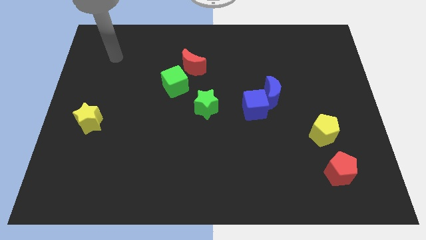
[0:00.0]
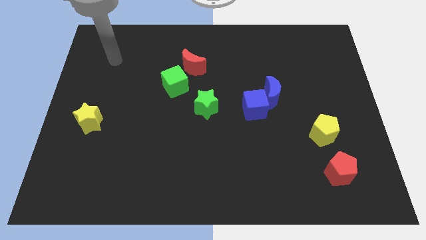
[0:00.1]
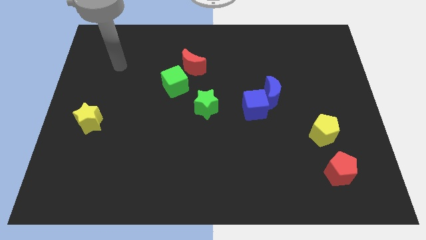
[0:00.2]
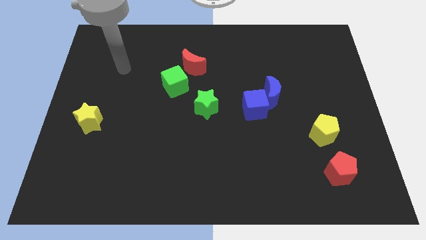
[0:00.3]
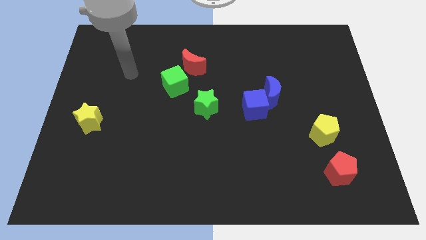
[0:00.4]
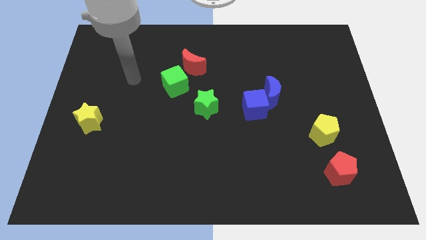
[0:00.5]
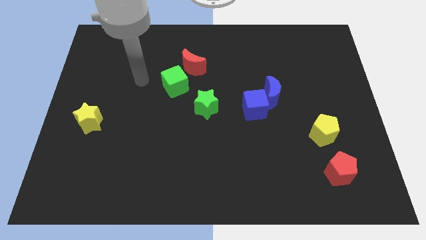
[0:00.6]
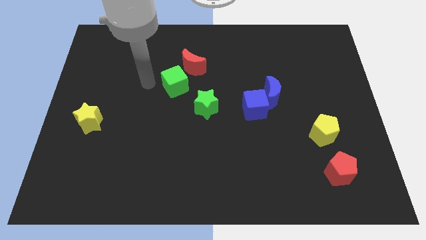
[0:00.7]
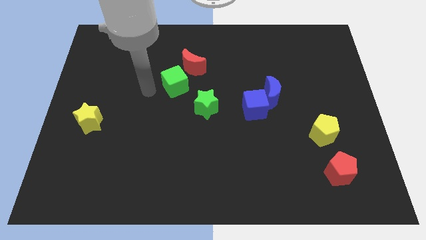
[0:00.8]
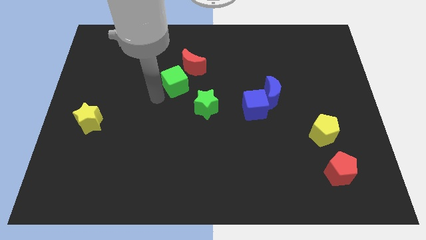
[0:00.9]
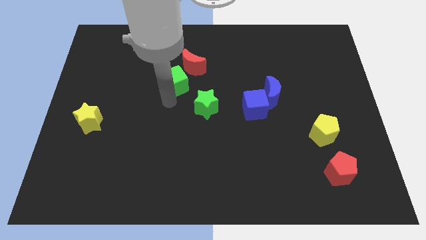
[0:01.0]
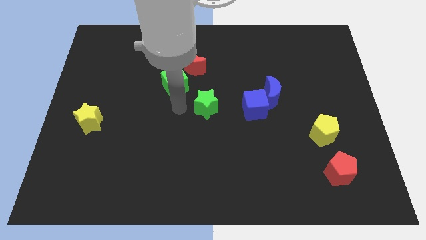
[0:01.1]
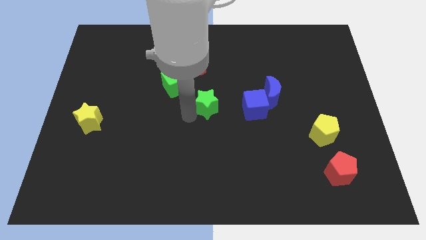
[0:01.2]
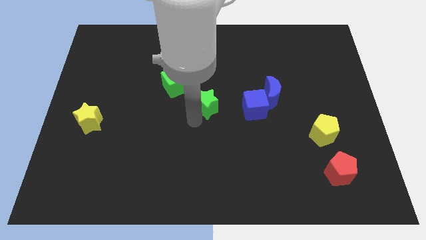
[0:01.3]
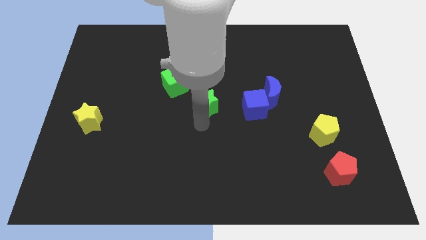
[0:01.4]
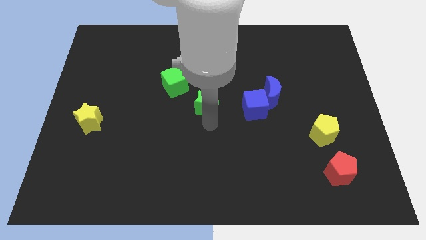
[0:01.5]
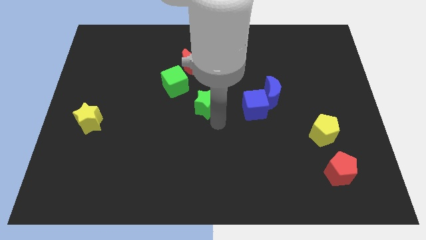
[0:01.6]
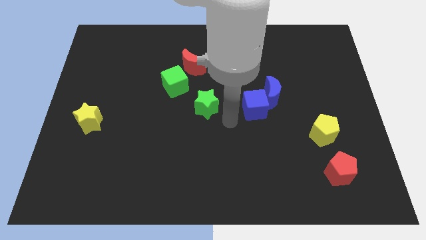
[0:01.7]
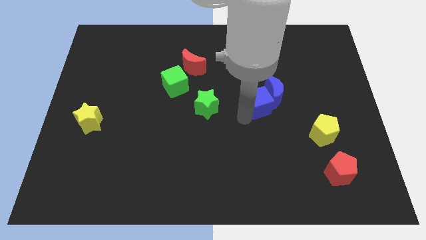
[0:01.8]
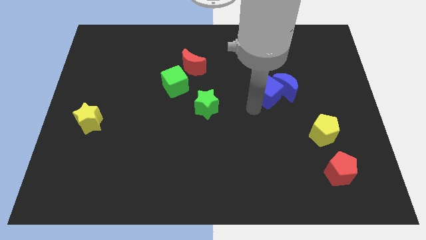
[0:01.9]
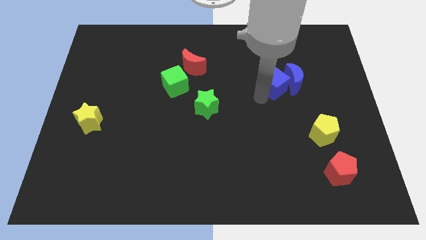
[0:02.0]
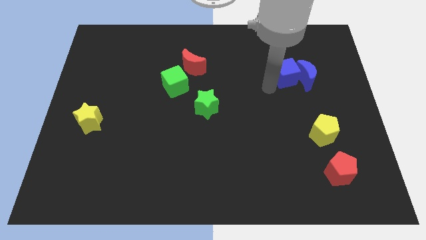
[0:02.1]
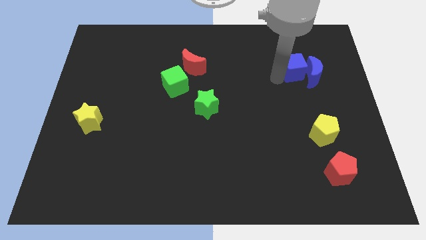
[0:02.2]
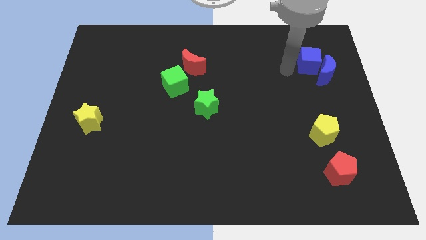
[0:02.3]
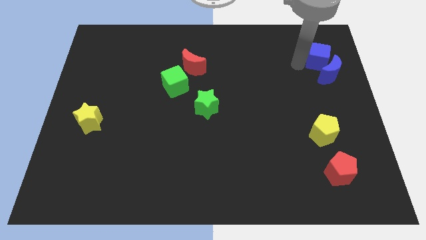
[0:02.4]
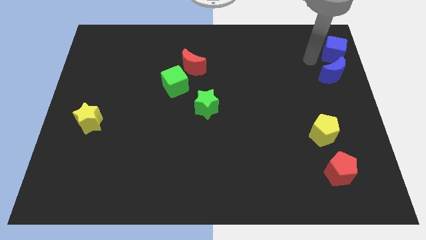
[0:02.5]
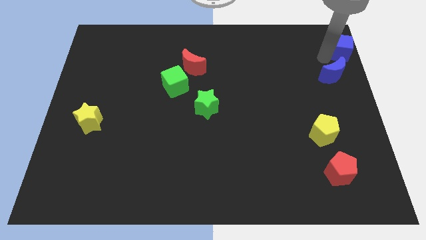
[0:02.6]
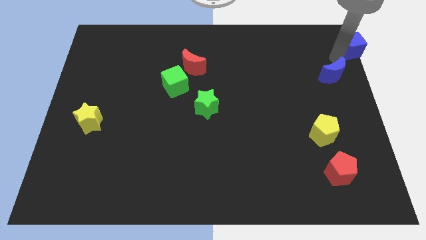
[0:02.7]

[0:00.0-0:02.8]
separate the blue moon from the blue cube

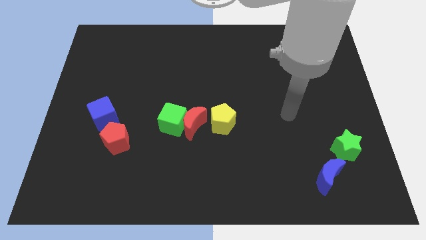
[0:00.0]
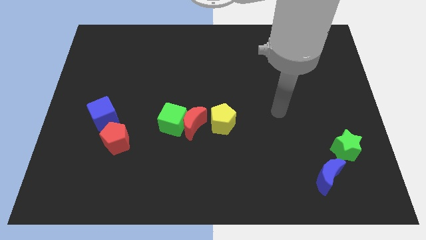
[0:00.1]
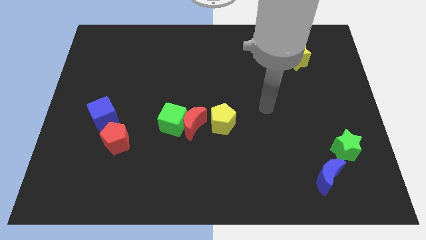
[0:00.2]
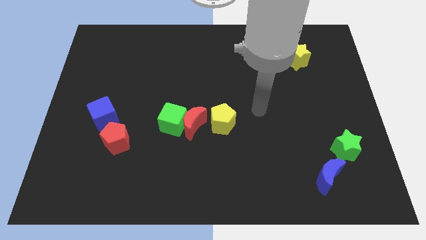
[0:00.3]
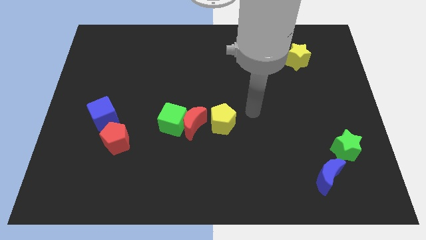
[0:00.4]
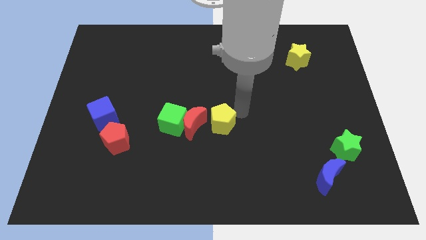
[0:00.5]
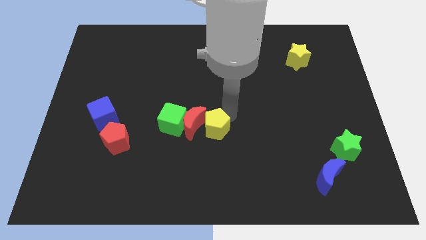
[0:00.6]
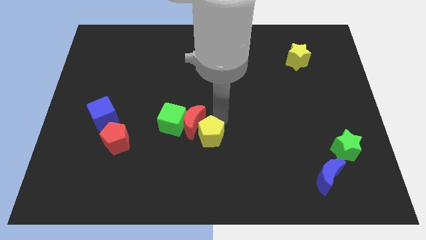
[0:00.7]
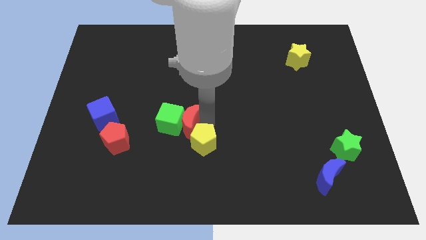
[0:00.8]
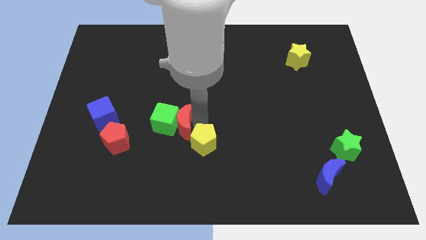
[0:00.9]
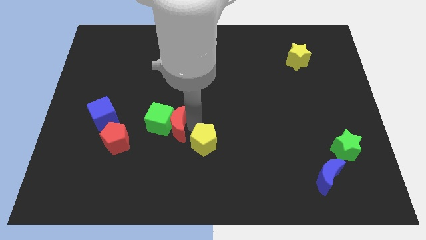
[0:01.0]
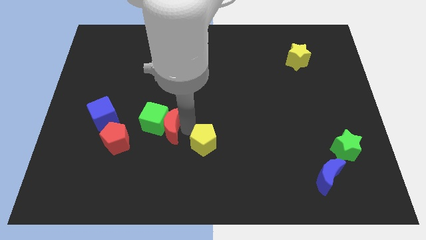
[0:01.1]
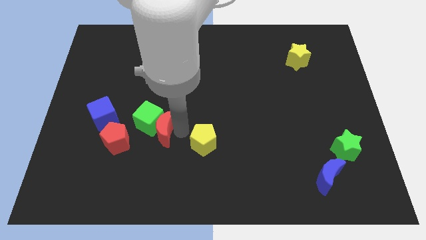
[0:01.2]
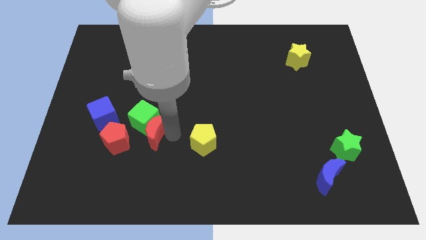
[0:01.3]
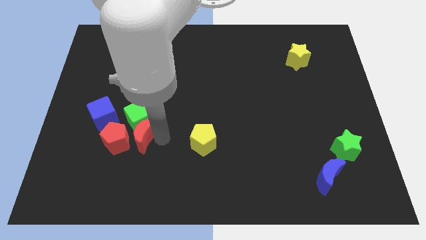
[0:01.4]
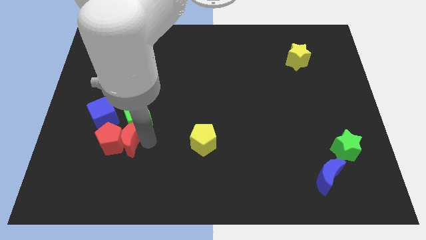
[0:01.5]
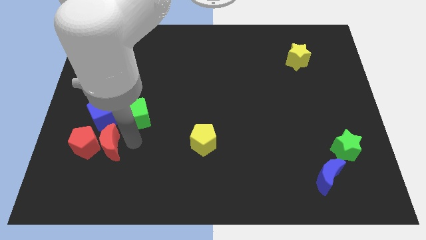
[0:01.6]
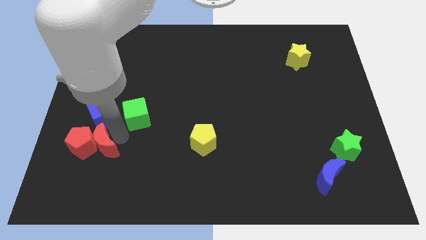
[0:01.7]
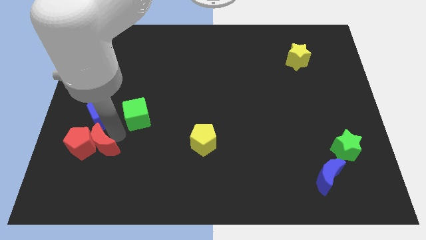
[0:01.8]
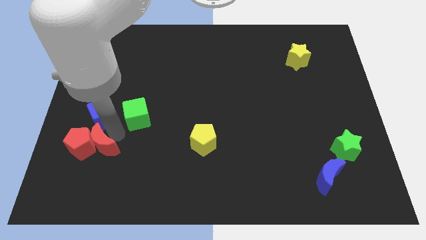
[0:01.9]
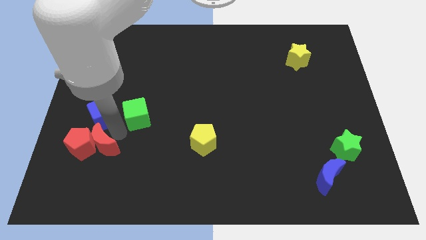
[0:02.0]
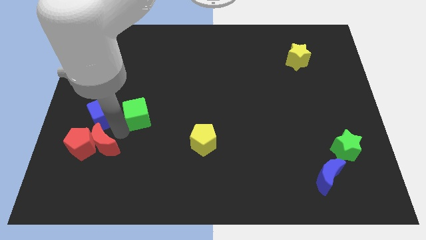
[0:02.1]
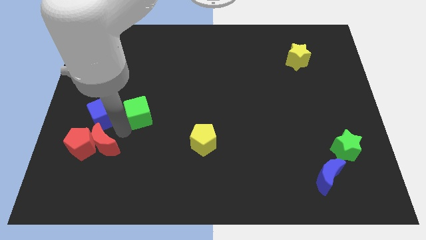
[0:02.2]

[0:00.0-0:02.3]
separate the green cube from the red moon

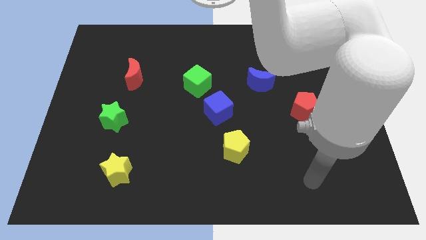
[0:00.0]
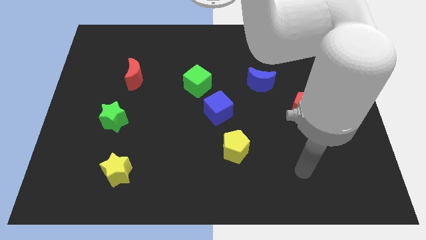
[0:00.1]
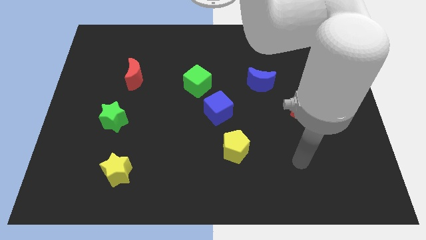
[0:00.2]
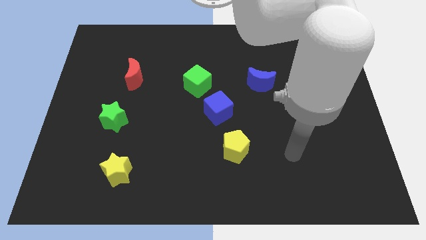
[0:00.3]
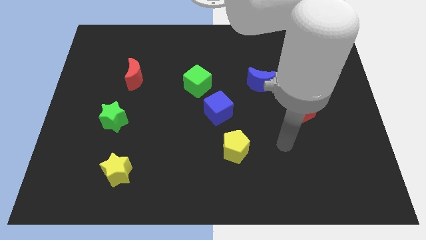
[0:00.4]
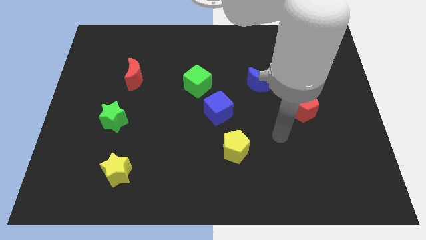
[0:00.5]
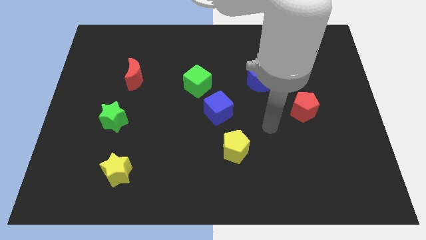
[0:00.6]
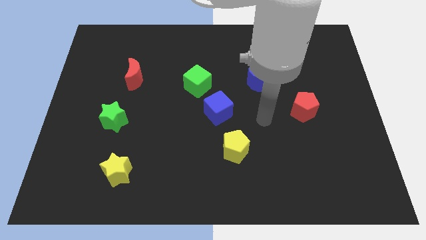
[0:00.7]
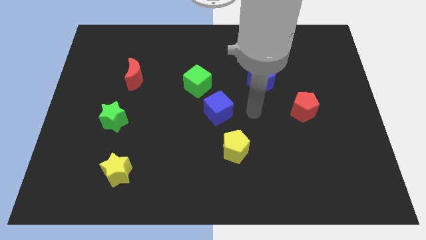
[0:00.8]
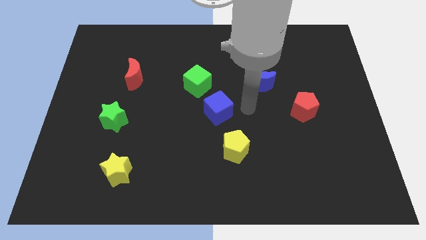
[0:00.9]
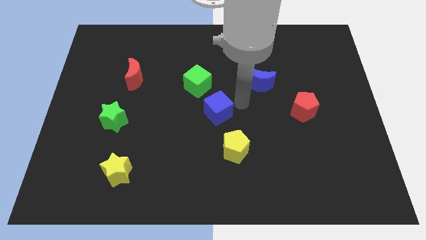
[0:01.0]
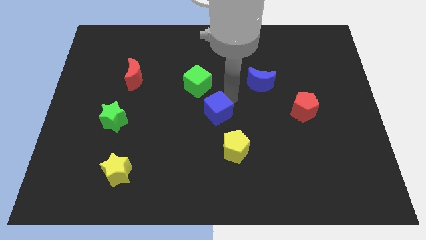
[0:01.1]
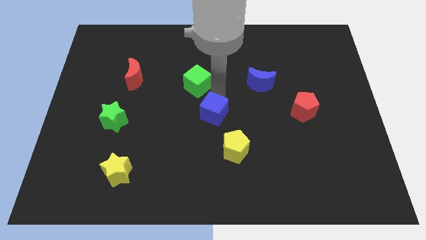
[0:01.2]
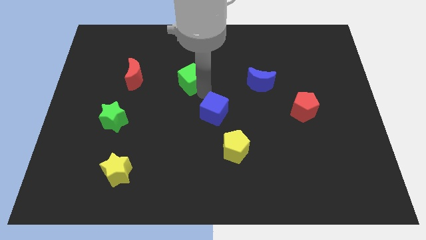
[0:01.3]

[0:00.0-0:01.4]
move the blue cube away from the green cube

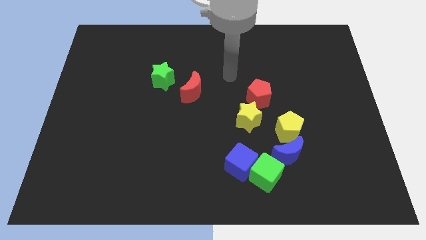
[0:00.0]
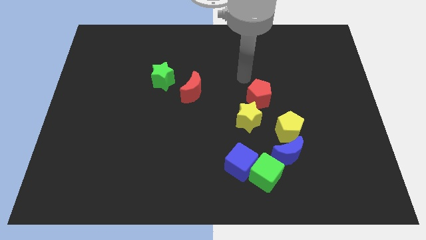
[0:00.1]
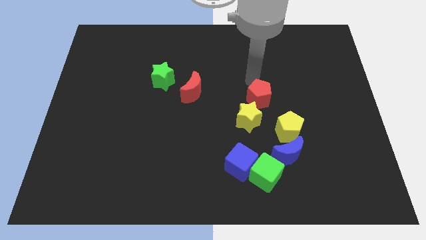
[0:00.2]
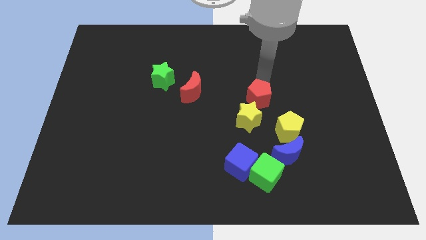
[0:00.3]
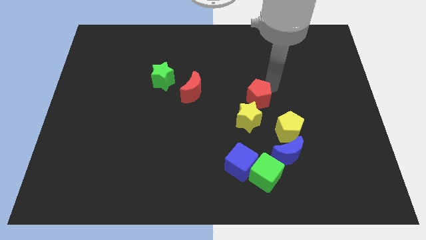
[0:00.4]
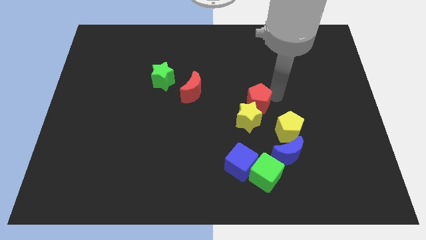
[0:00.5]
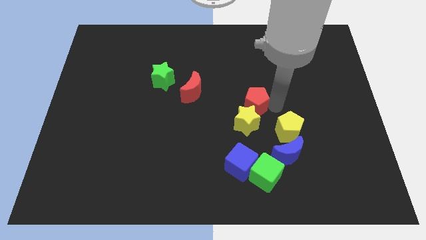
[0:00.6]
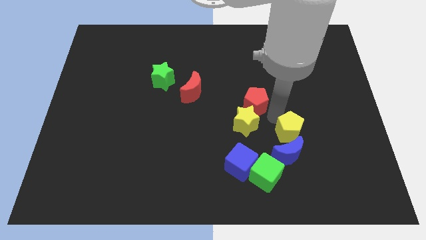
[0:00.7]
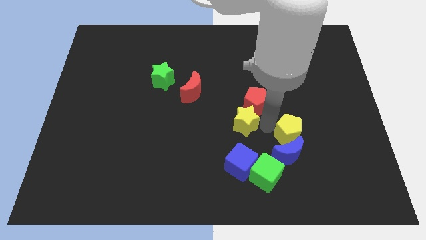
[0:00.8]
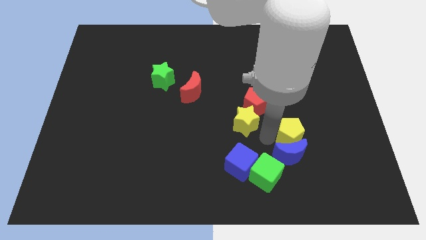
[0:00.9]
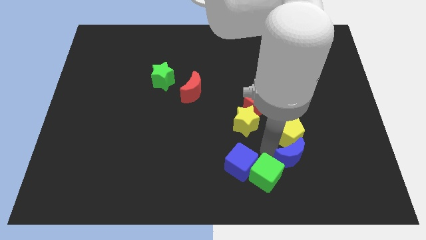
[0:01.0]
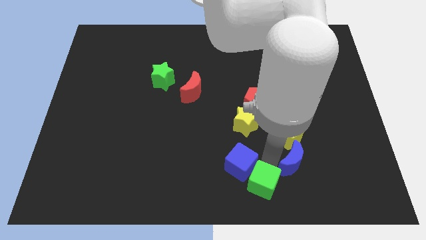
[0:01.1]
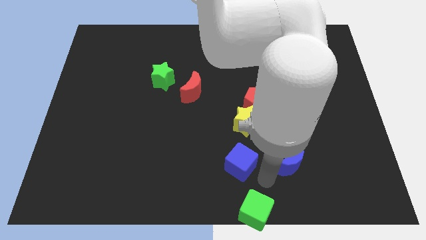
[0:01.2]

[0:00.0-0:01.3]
pull the blue cube apart from the green cube

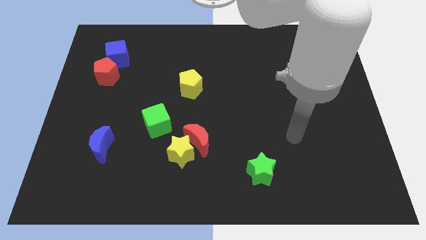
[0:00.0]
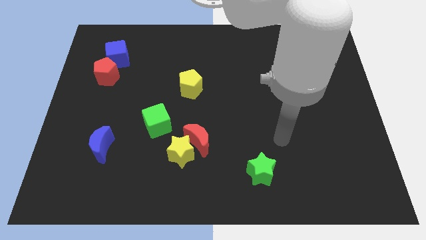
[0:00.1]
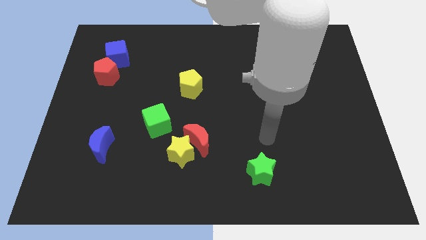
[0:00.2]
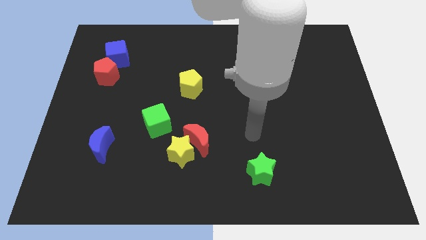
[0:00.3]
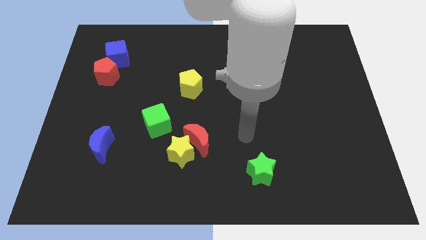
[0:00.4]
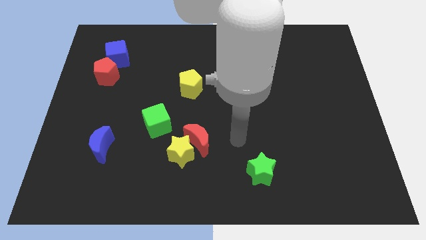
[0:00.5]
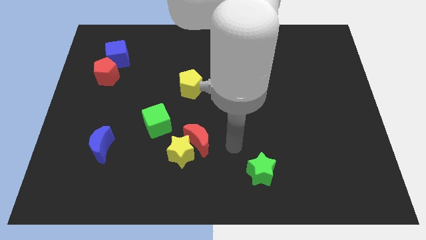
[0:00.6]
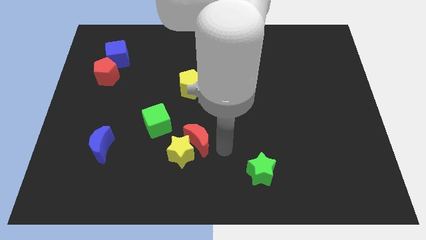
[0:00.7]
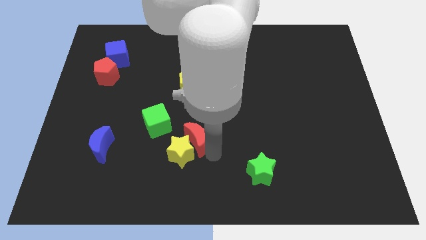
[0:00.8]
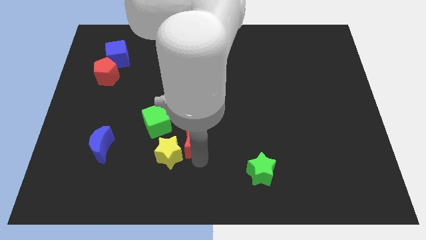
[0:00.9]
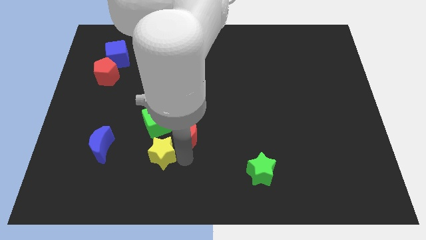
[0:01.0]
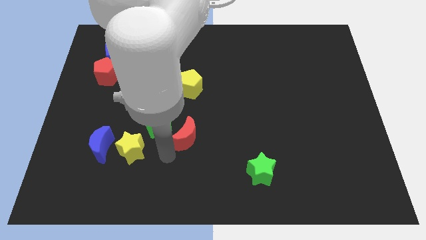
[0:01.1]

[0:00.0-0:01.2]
move the red moon away from the yellow star

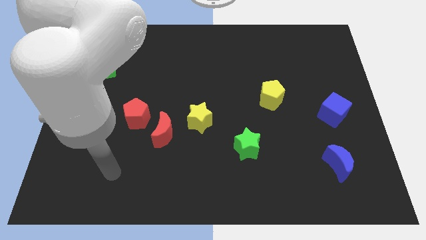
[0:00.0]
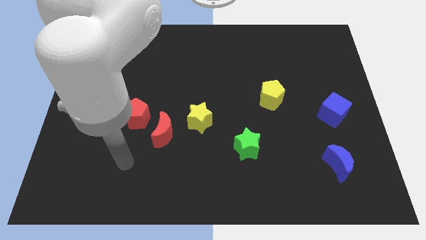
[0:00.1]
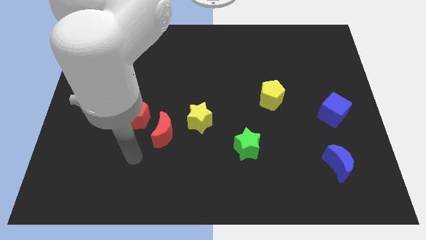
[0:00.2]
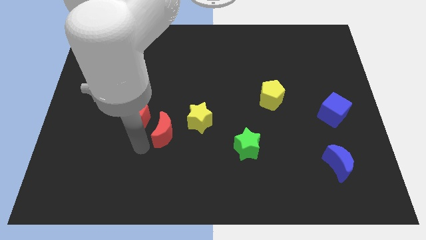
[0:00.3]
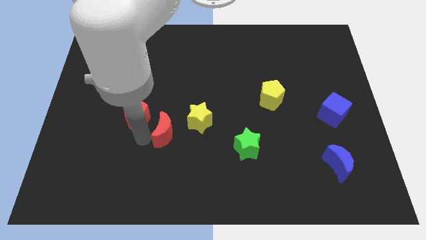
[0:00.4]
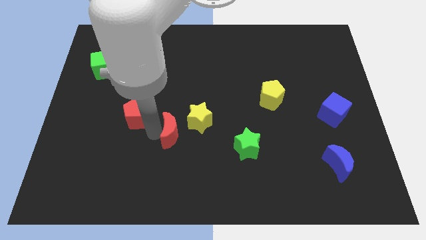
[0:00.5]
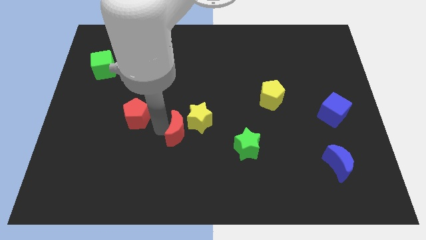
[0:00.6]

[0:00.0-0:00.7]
separate the red pentagon from the red moon
